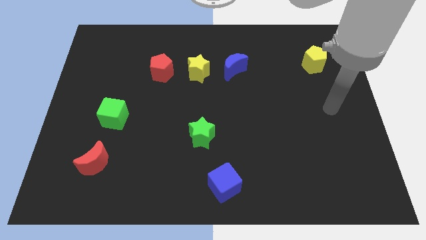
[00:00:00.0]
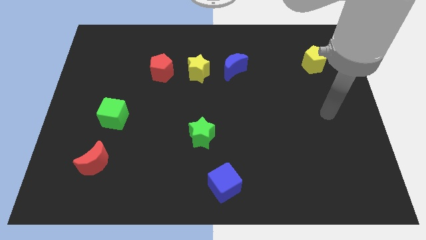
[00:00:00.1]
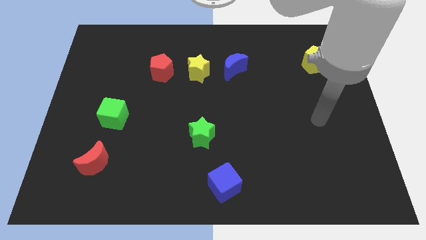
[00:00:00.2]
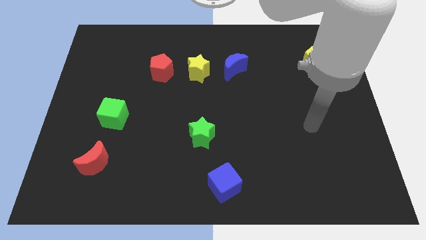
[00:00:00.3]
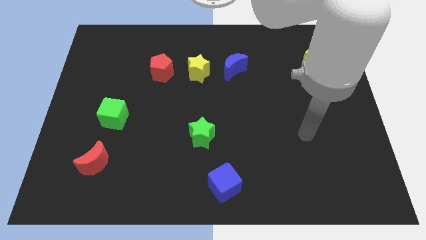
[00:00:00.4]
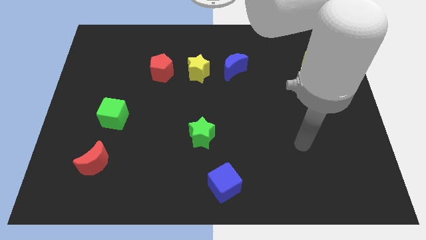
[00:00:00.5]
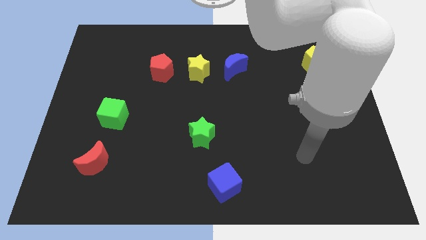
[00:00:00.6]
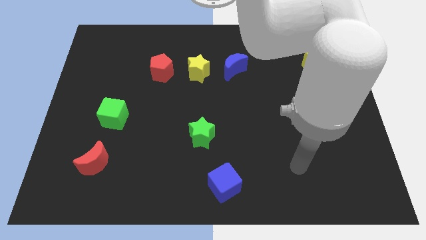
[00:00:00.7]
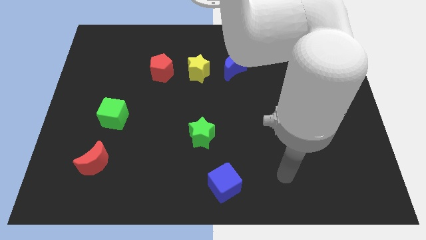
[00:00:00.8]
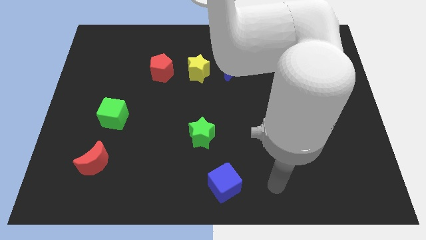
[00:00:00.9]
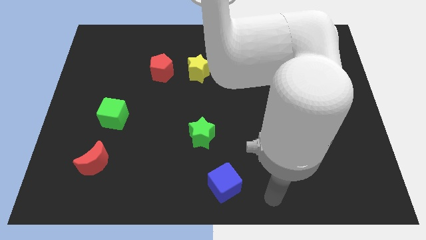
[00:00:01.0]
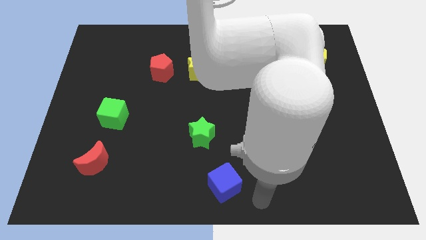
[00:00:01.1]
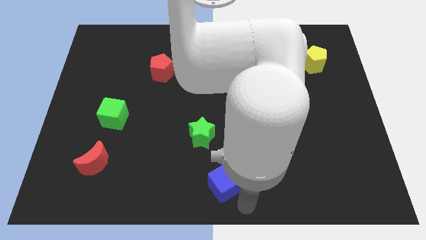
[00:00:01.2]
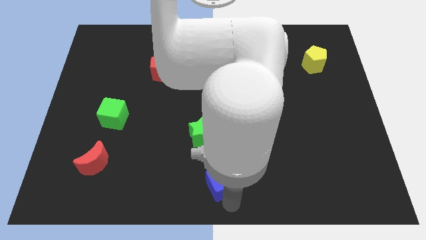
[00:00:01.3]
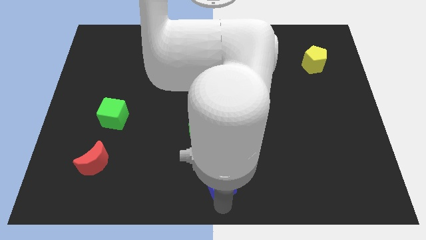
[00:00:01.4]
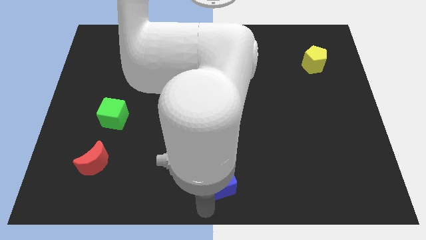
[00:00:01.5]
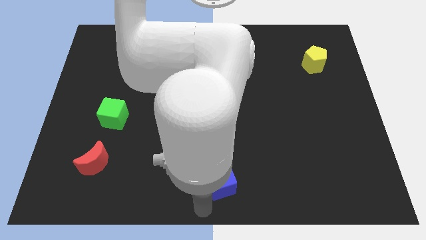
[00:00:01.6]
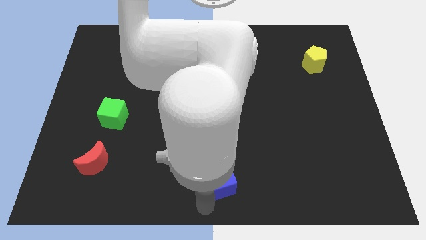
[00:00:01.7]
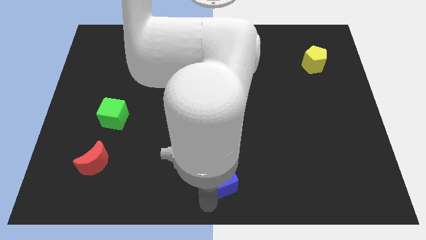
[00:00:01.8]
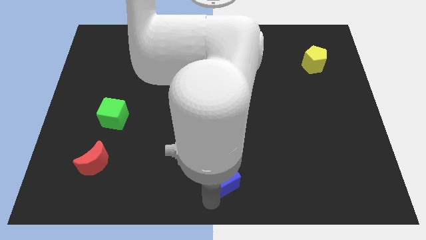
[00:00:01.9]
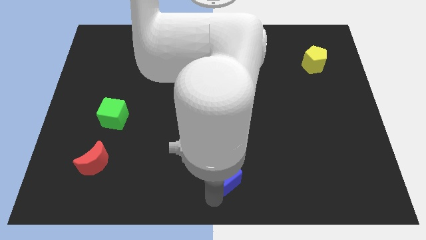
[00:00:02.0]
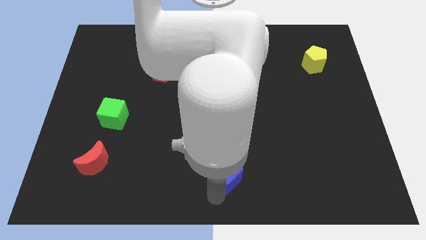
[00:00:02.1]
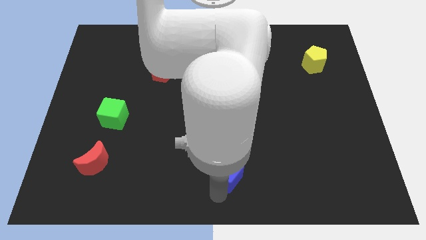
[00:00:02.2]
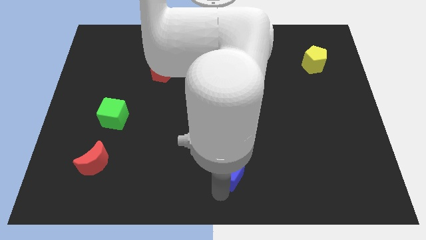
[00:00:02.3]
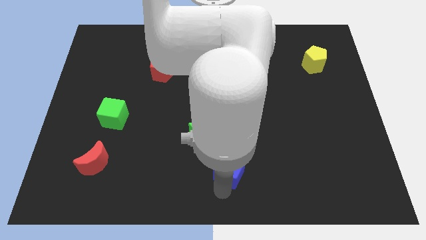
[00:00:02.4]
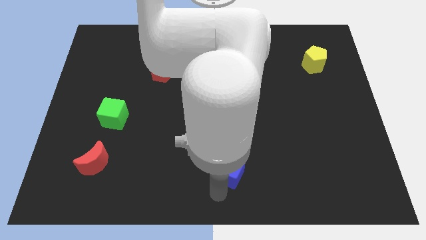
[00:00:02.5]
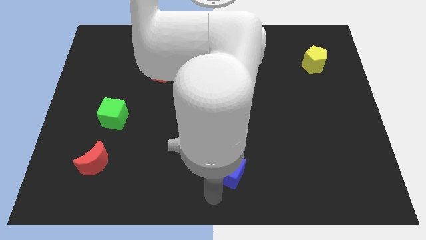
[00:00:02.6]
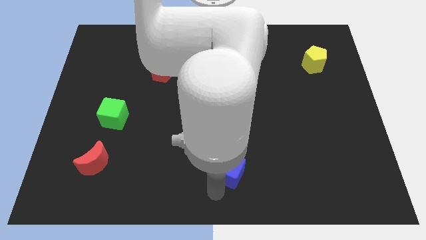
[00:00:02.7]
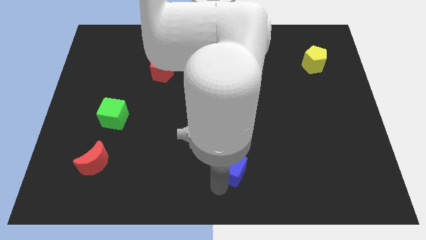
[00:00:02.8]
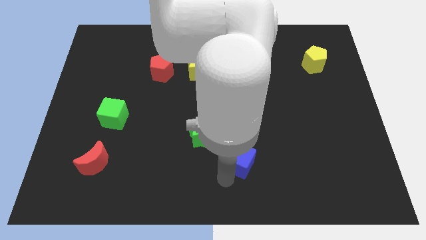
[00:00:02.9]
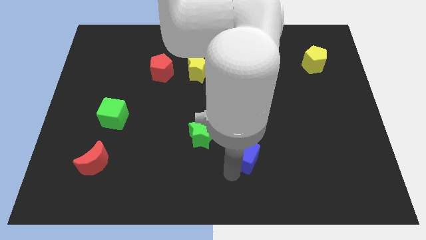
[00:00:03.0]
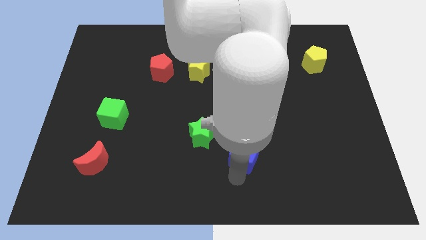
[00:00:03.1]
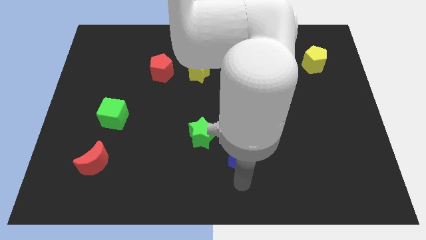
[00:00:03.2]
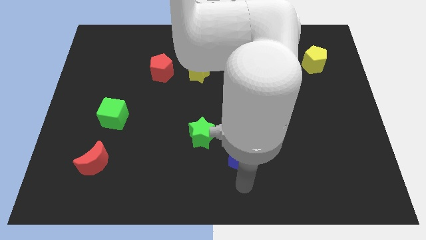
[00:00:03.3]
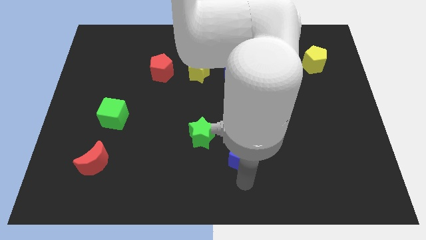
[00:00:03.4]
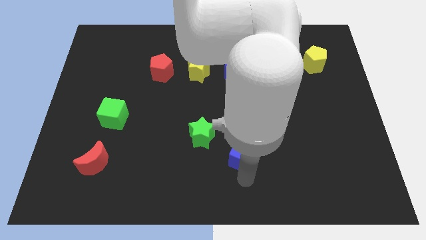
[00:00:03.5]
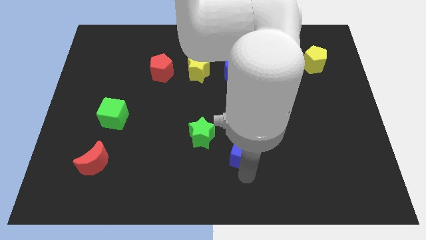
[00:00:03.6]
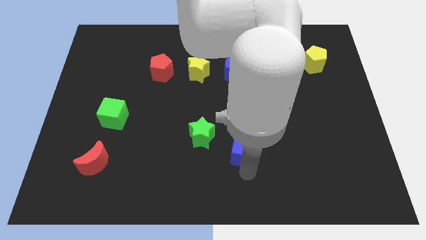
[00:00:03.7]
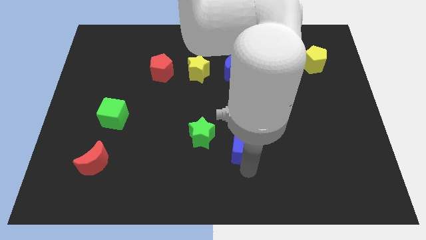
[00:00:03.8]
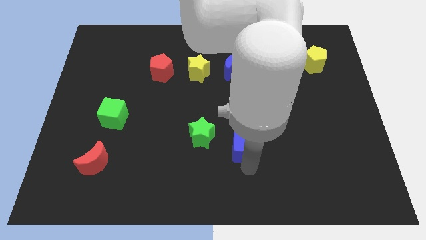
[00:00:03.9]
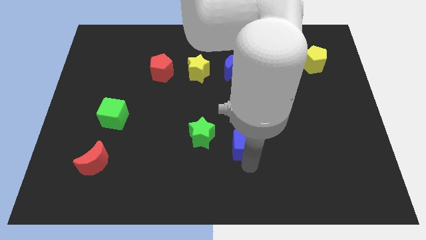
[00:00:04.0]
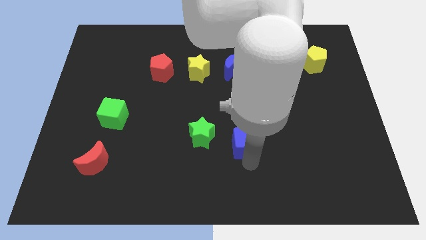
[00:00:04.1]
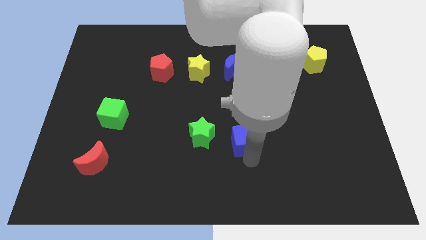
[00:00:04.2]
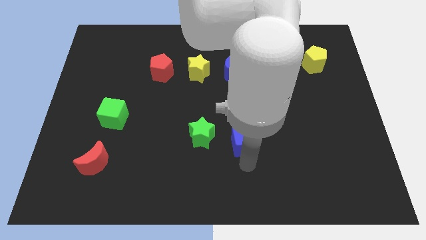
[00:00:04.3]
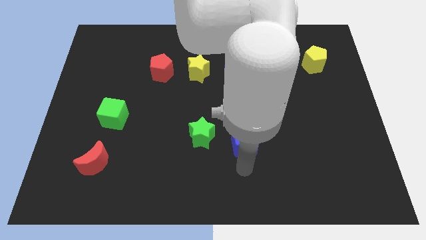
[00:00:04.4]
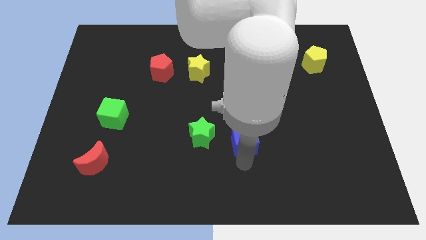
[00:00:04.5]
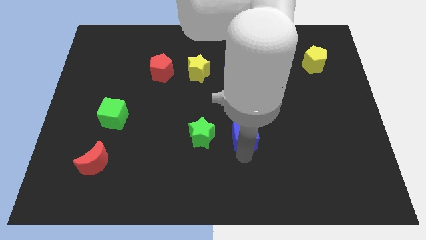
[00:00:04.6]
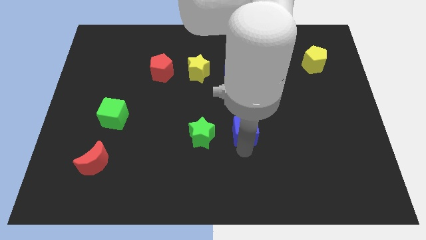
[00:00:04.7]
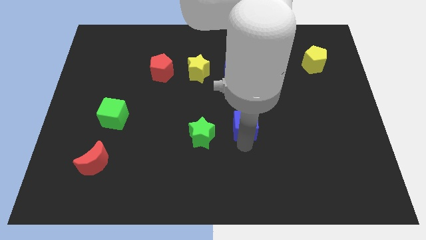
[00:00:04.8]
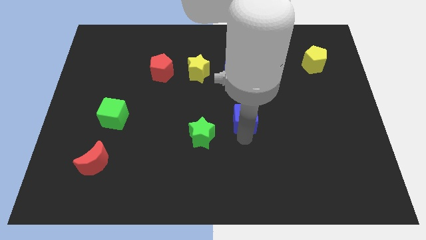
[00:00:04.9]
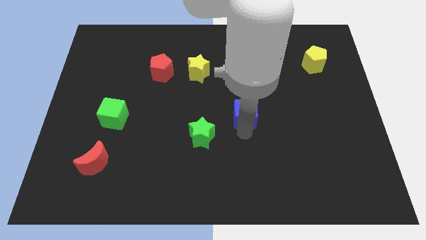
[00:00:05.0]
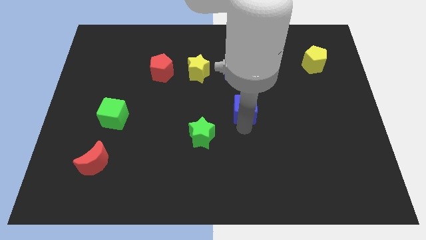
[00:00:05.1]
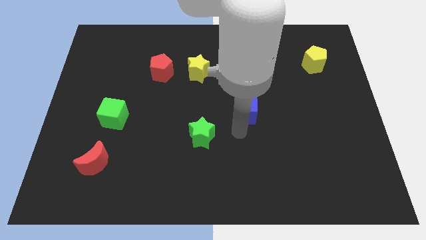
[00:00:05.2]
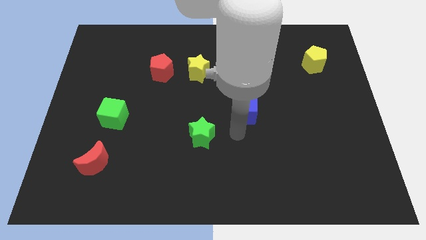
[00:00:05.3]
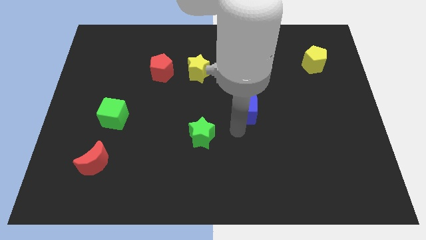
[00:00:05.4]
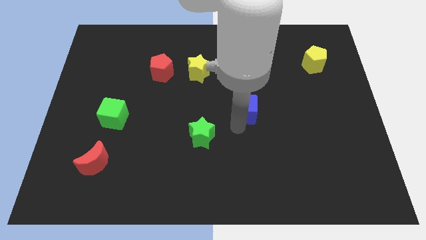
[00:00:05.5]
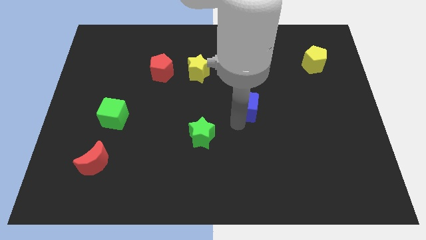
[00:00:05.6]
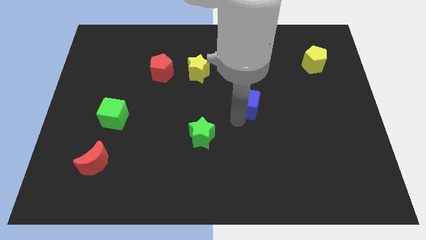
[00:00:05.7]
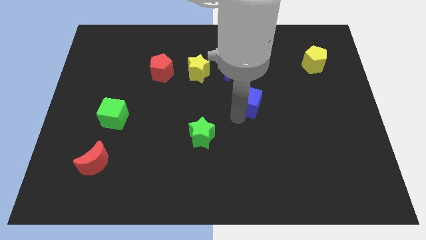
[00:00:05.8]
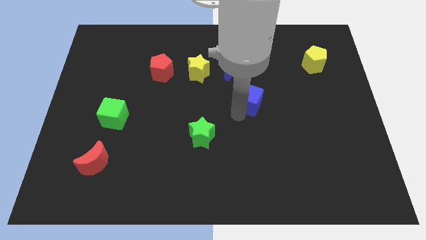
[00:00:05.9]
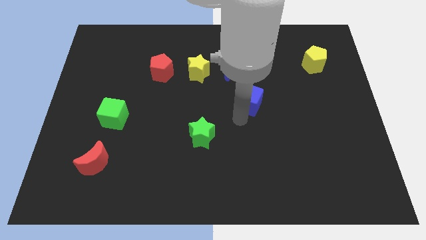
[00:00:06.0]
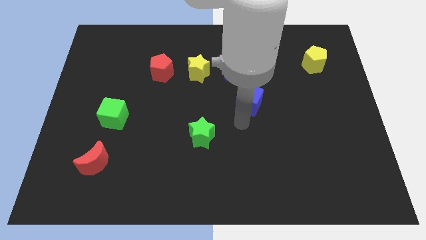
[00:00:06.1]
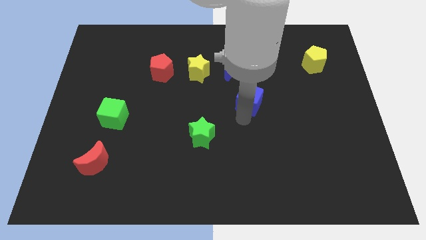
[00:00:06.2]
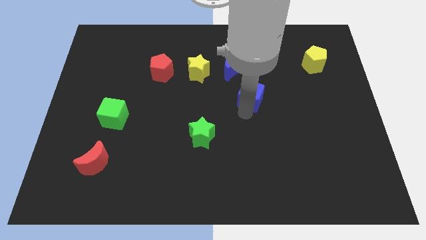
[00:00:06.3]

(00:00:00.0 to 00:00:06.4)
push the blue cube to the bottom right side of the blue moon

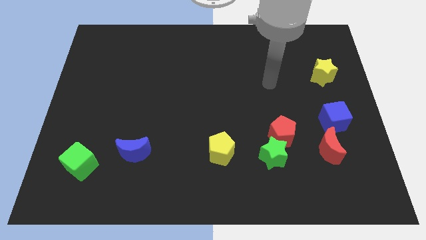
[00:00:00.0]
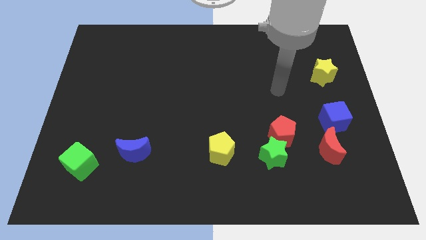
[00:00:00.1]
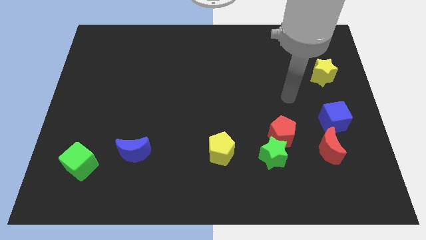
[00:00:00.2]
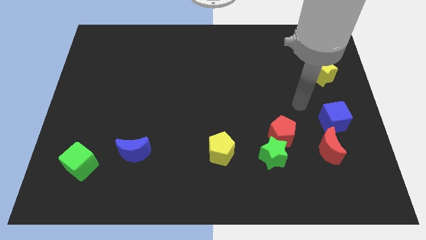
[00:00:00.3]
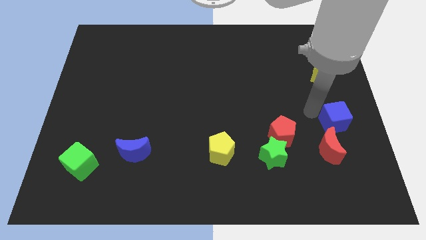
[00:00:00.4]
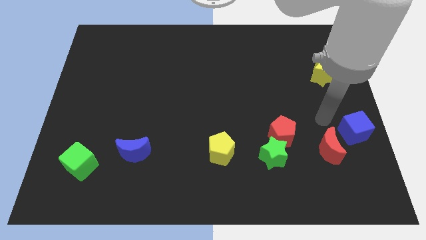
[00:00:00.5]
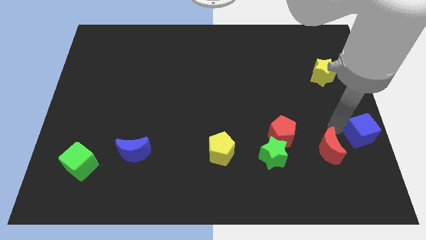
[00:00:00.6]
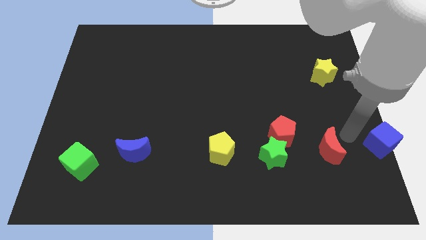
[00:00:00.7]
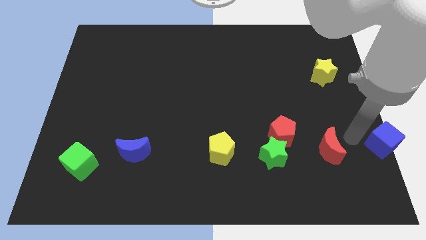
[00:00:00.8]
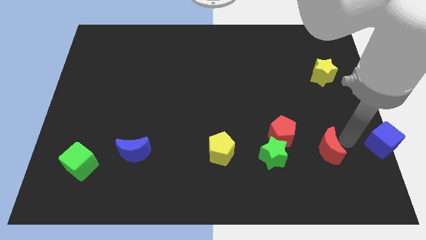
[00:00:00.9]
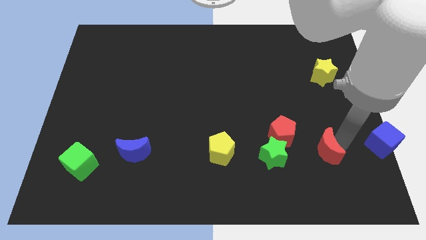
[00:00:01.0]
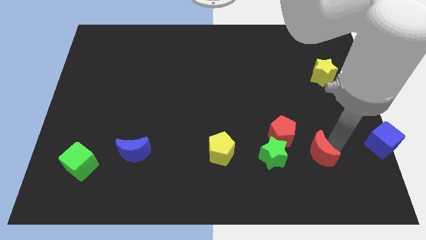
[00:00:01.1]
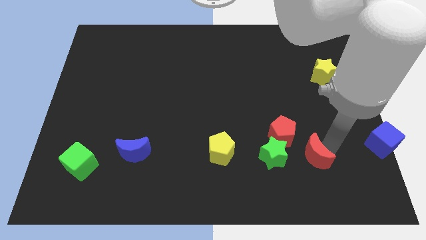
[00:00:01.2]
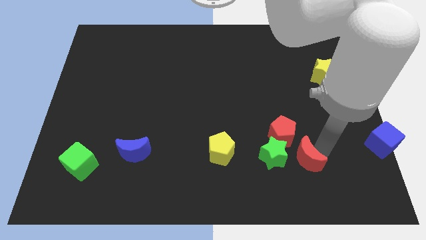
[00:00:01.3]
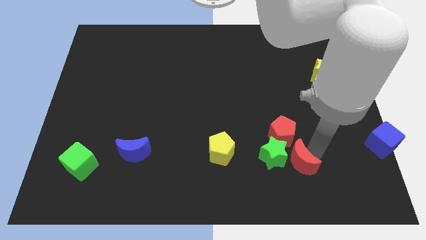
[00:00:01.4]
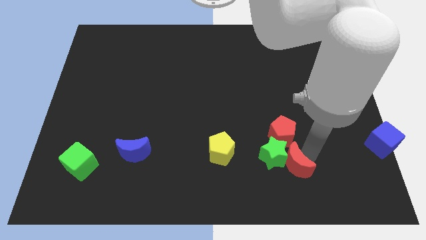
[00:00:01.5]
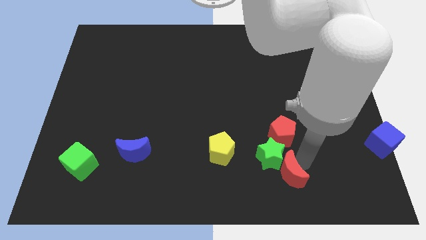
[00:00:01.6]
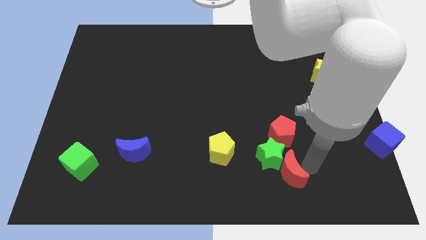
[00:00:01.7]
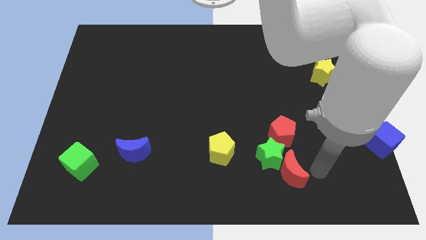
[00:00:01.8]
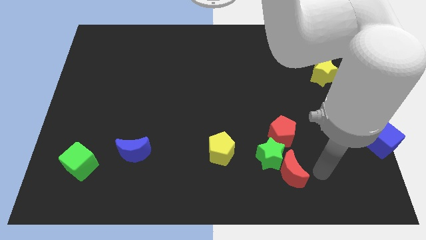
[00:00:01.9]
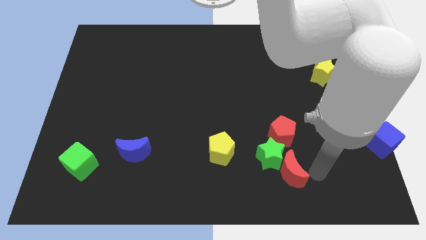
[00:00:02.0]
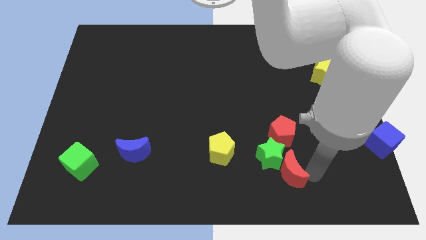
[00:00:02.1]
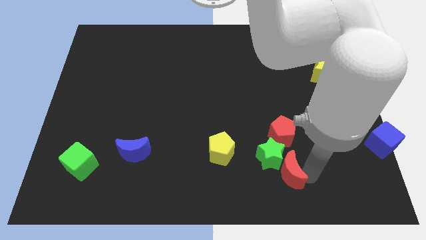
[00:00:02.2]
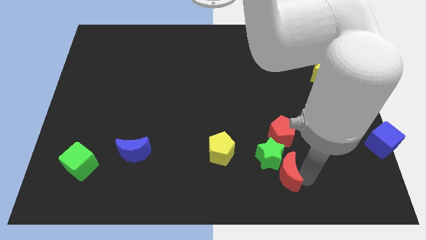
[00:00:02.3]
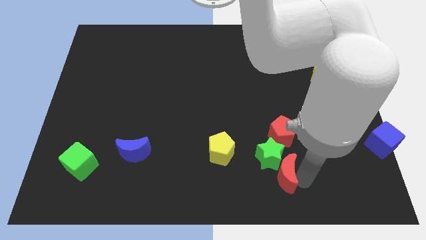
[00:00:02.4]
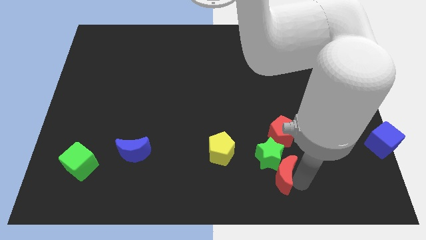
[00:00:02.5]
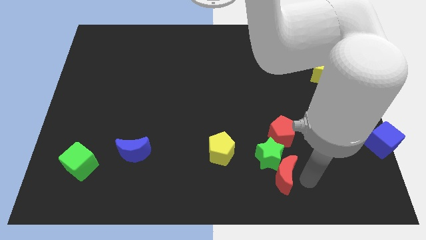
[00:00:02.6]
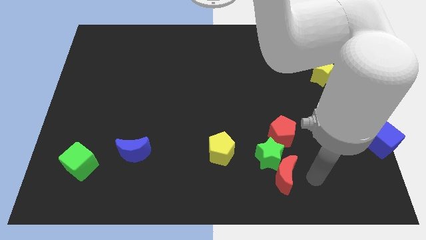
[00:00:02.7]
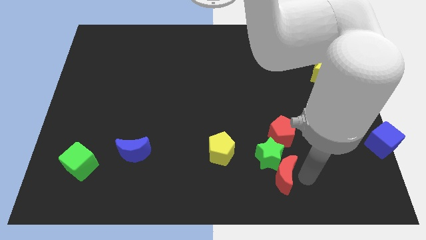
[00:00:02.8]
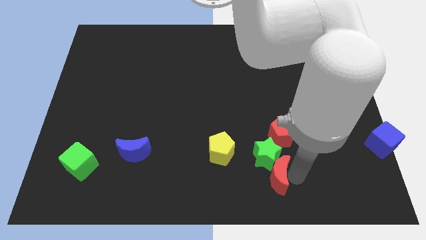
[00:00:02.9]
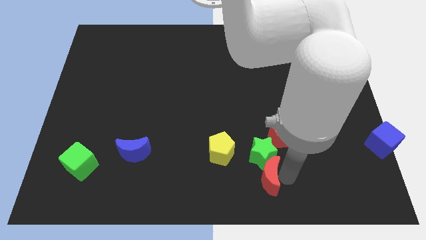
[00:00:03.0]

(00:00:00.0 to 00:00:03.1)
move the red moon to the bottom right side of the yellow pentagon
